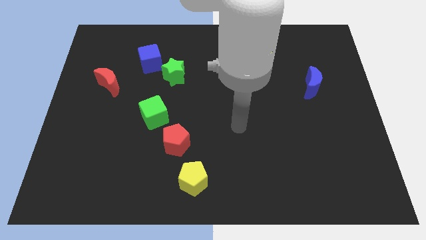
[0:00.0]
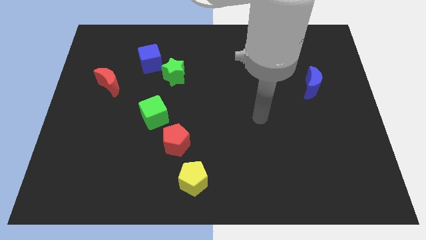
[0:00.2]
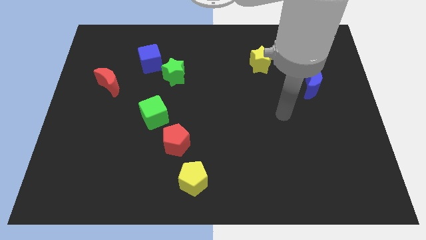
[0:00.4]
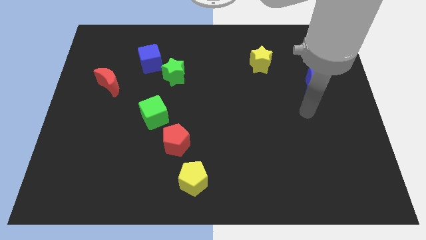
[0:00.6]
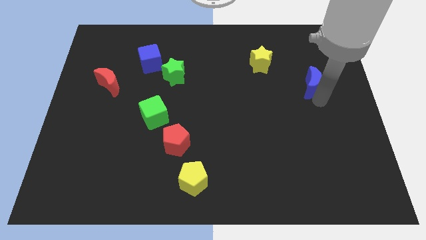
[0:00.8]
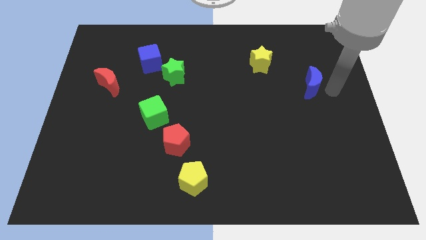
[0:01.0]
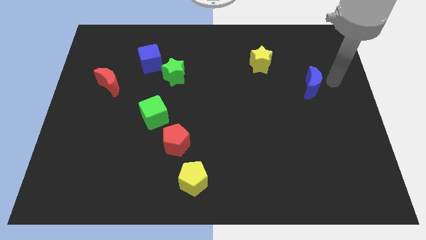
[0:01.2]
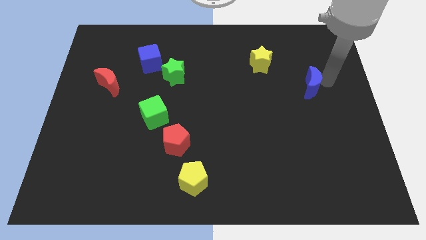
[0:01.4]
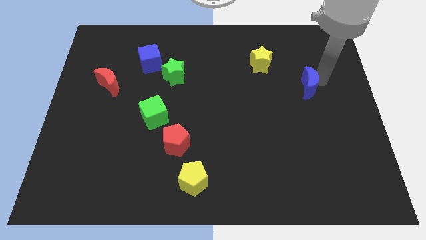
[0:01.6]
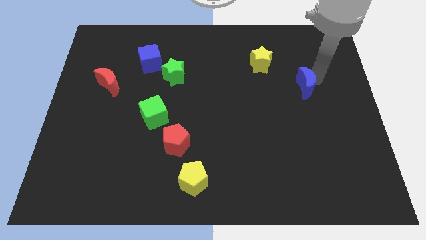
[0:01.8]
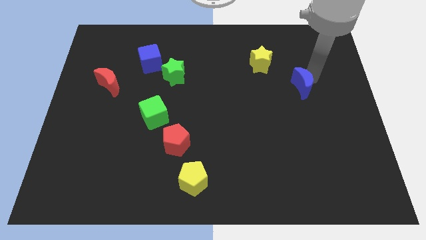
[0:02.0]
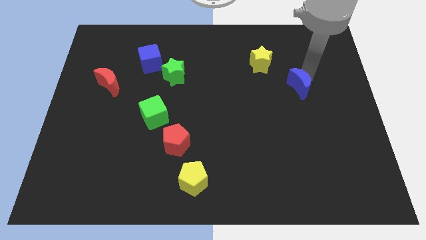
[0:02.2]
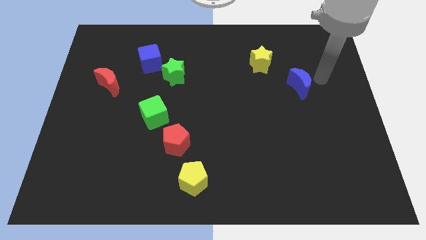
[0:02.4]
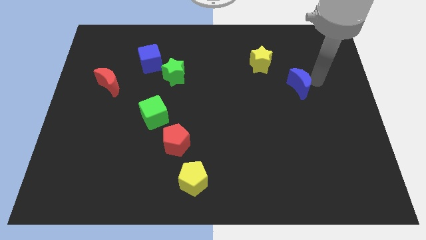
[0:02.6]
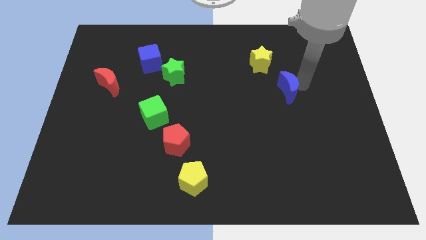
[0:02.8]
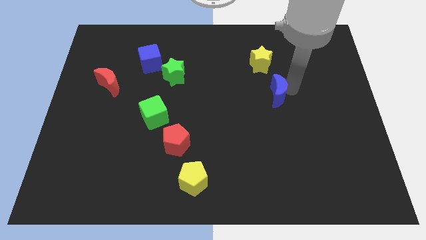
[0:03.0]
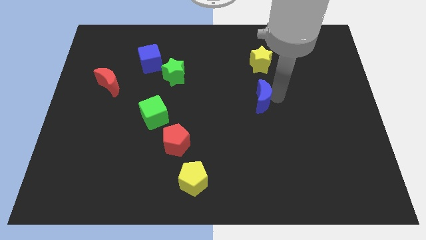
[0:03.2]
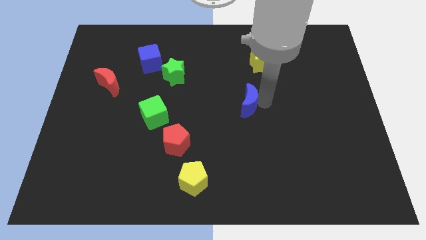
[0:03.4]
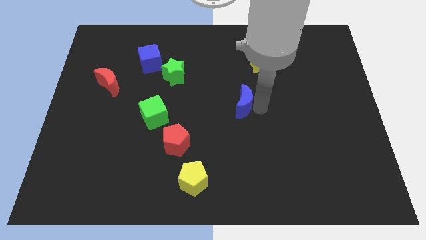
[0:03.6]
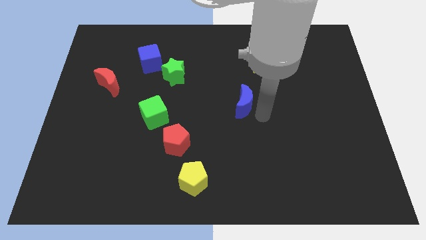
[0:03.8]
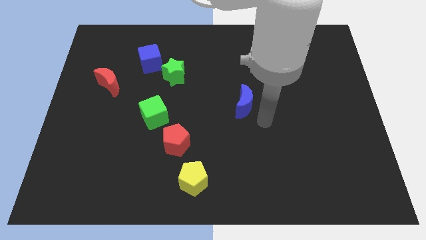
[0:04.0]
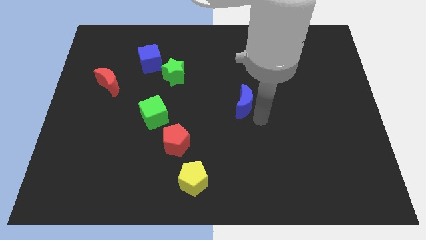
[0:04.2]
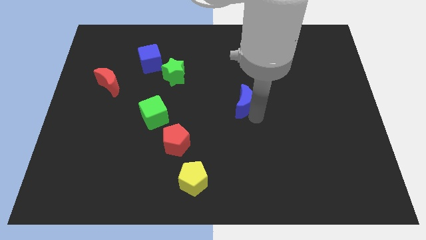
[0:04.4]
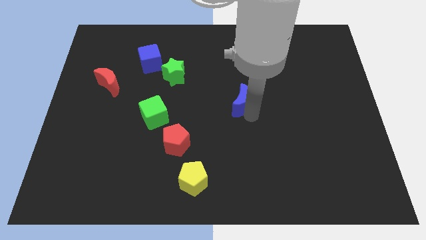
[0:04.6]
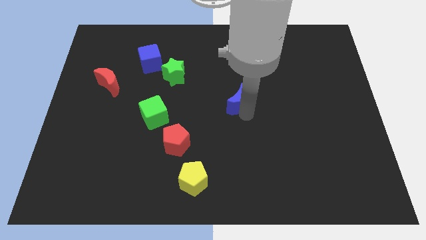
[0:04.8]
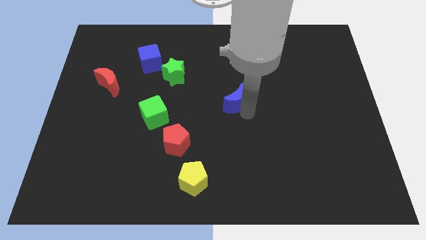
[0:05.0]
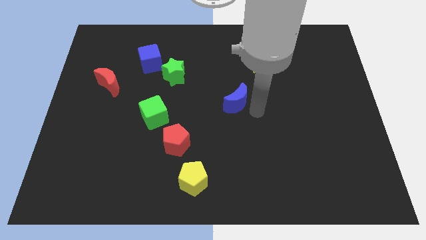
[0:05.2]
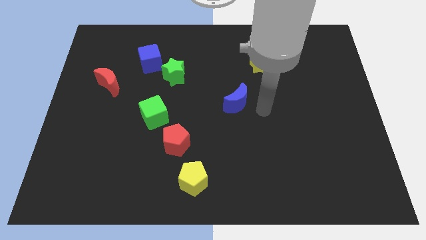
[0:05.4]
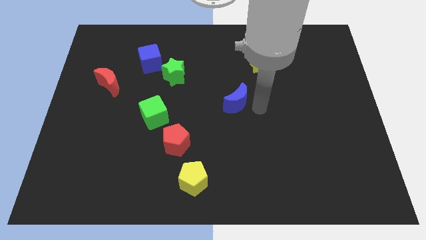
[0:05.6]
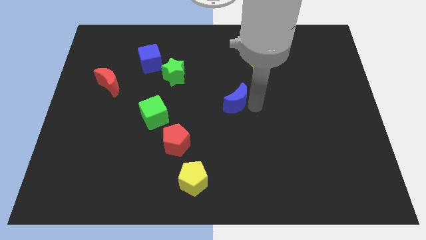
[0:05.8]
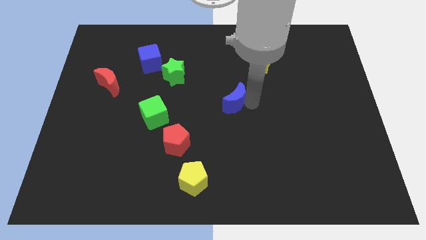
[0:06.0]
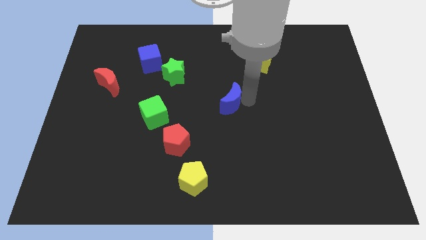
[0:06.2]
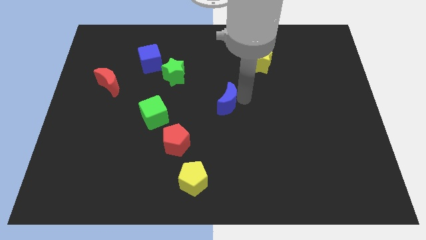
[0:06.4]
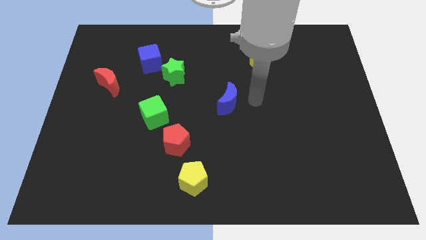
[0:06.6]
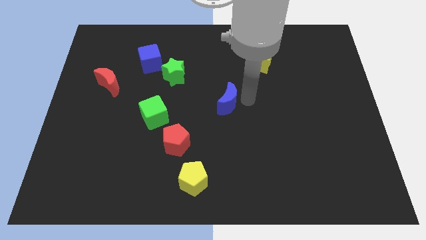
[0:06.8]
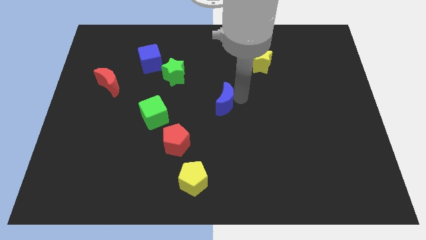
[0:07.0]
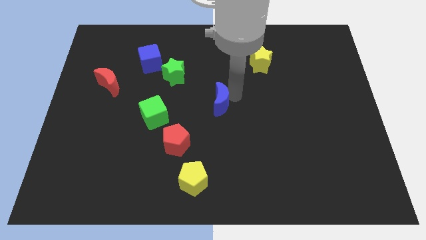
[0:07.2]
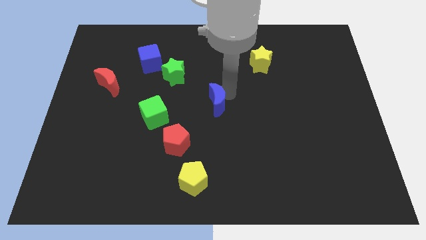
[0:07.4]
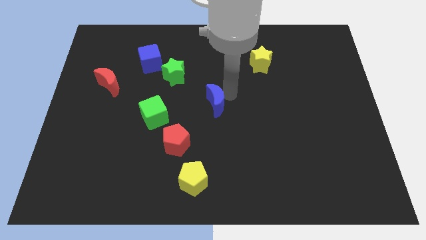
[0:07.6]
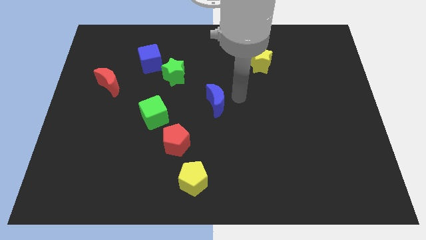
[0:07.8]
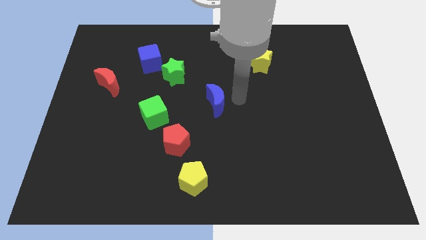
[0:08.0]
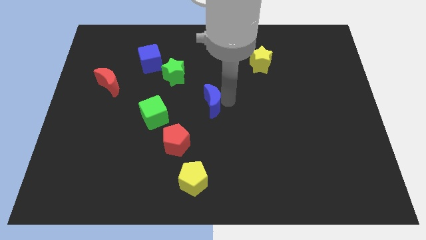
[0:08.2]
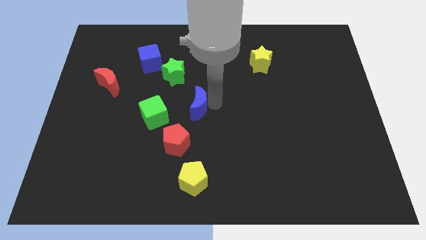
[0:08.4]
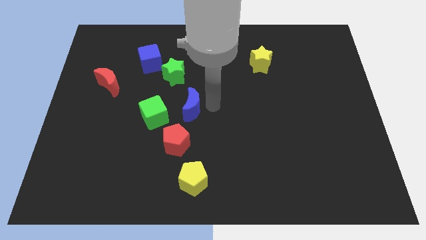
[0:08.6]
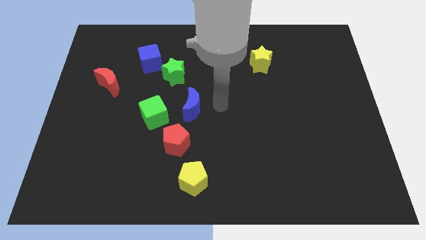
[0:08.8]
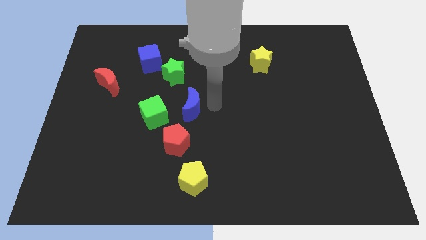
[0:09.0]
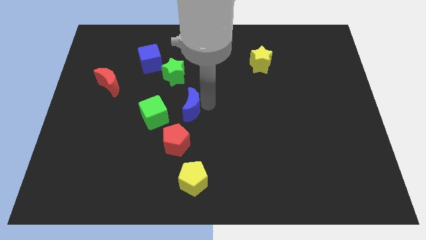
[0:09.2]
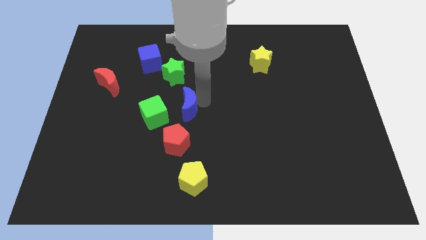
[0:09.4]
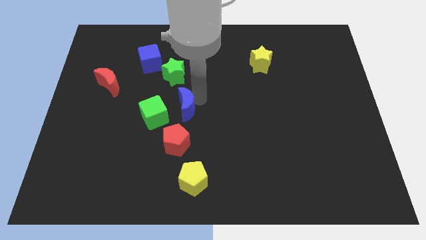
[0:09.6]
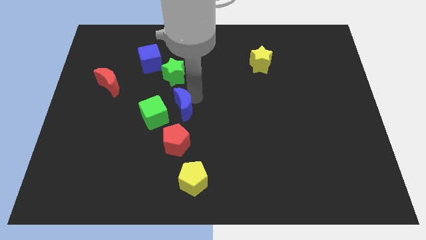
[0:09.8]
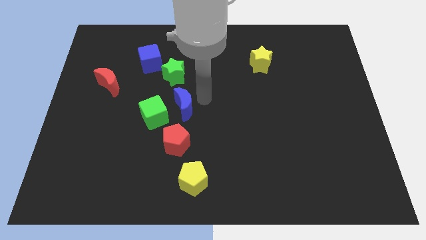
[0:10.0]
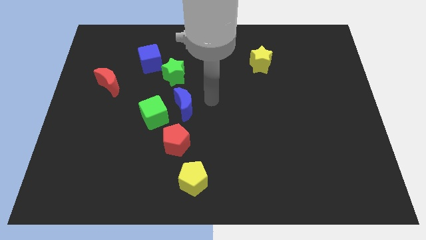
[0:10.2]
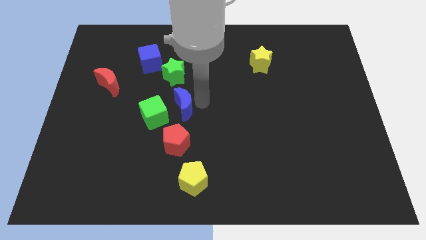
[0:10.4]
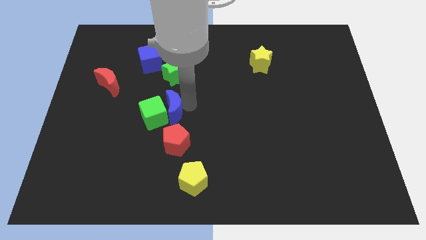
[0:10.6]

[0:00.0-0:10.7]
slide the blue moon close to the green cube

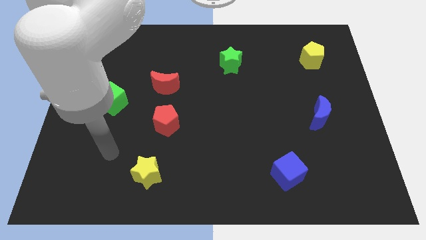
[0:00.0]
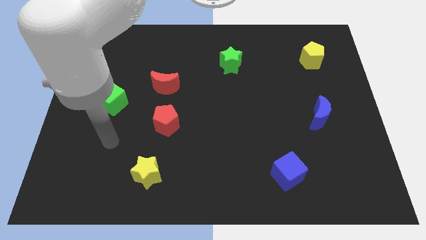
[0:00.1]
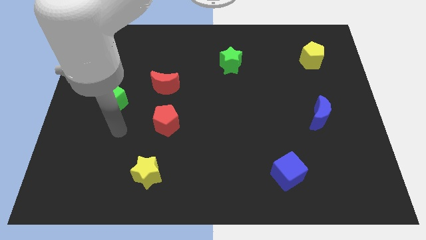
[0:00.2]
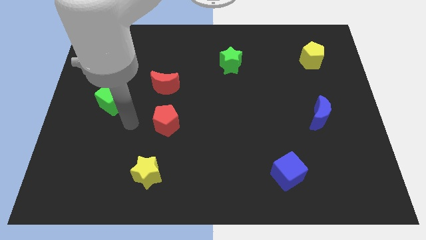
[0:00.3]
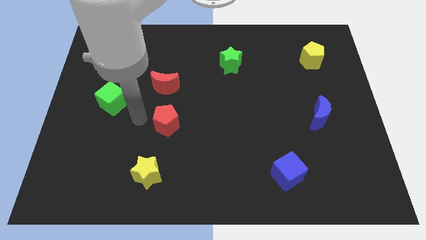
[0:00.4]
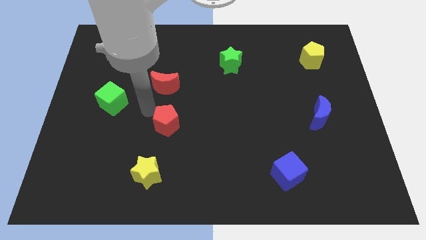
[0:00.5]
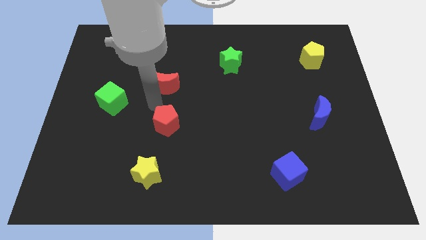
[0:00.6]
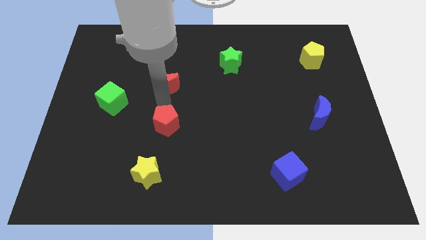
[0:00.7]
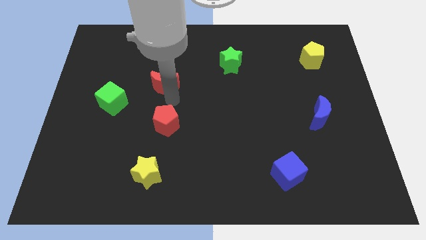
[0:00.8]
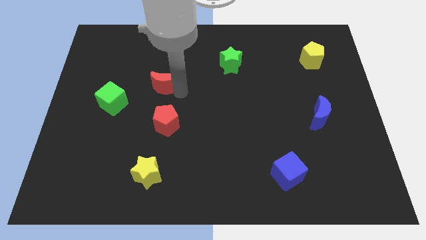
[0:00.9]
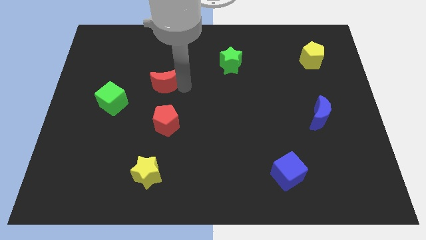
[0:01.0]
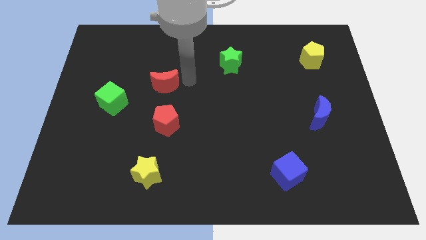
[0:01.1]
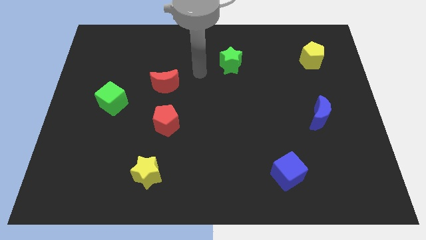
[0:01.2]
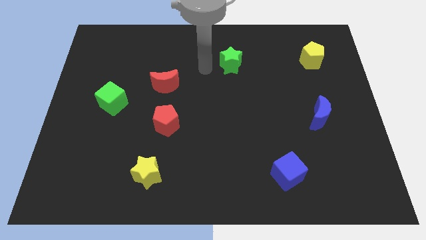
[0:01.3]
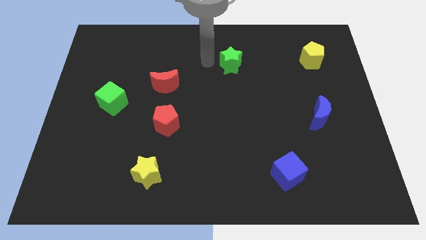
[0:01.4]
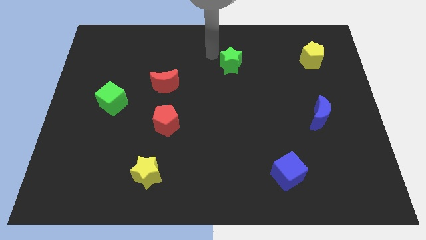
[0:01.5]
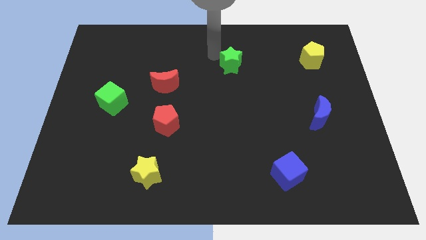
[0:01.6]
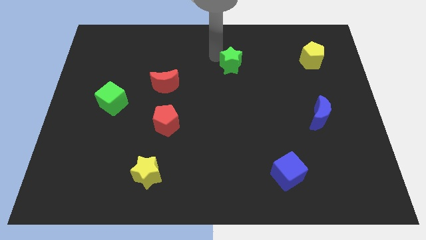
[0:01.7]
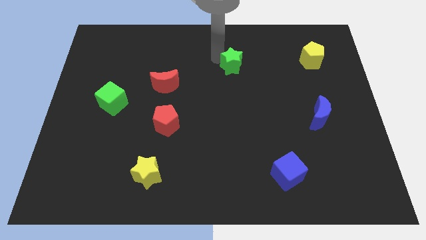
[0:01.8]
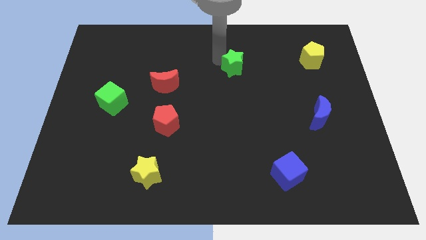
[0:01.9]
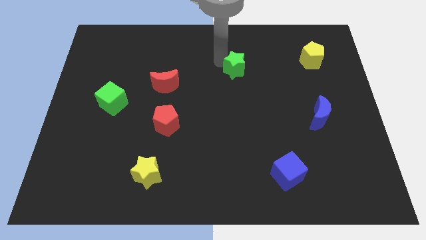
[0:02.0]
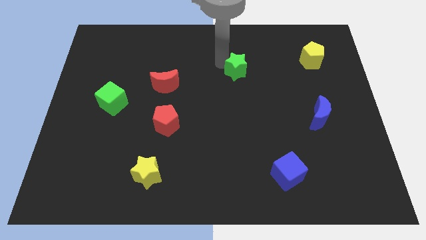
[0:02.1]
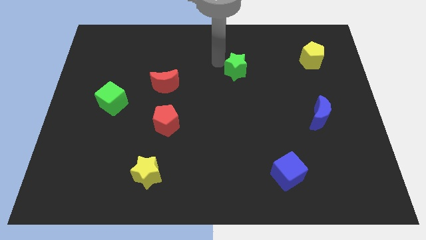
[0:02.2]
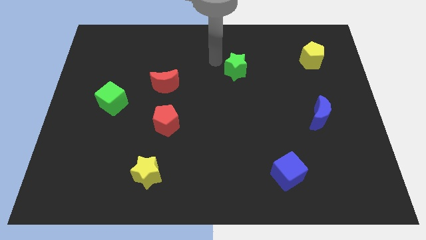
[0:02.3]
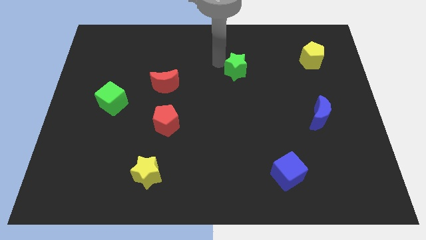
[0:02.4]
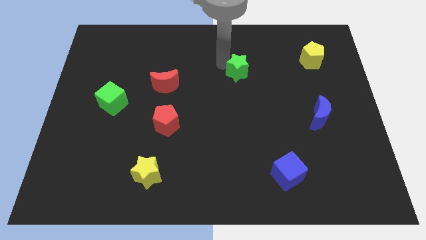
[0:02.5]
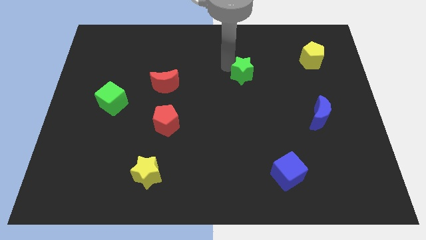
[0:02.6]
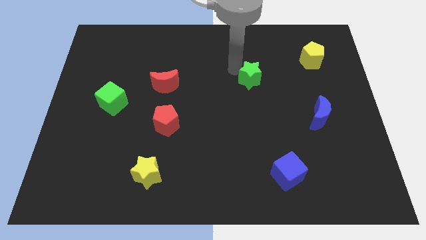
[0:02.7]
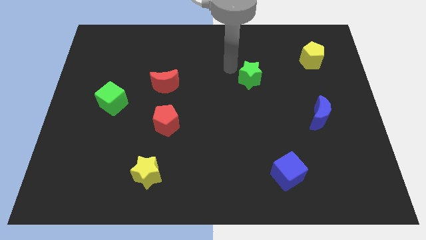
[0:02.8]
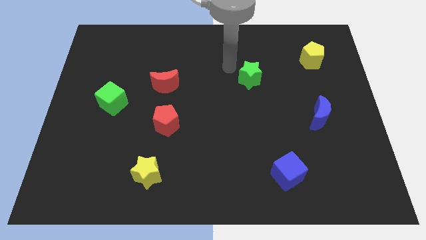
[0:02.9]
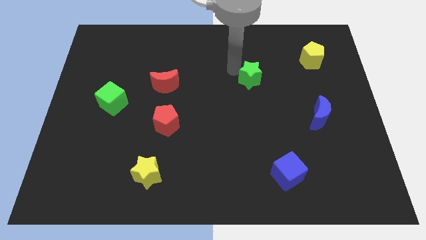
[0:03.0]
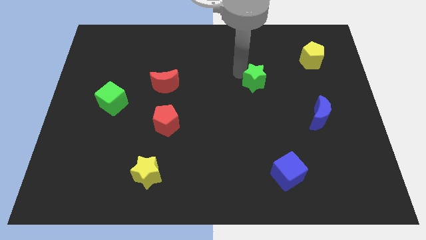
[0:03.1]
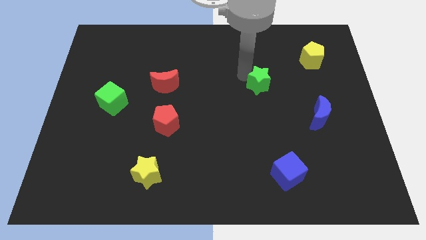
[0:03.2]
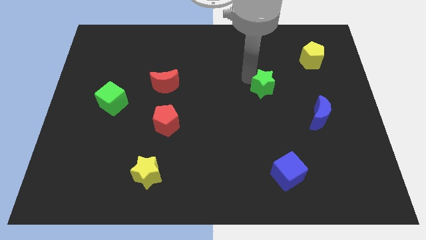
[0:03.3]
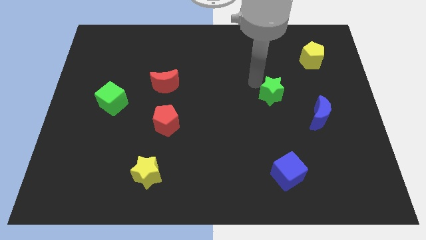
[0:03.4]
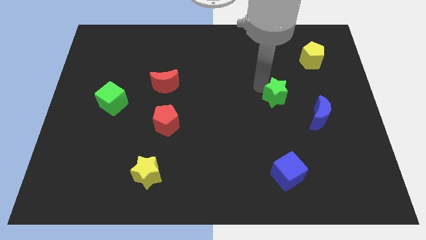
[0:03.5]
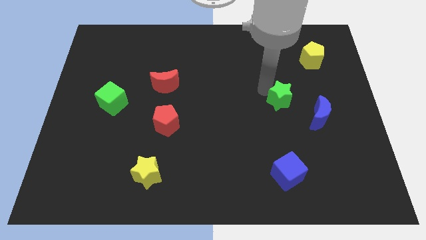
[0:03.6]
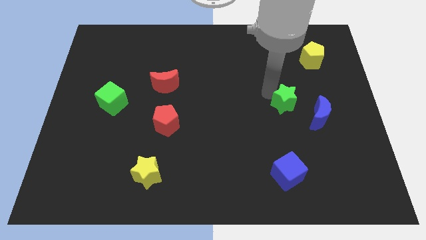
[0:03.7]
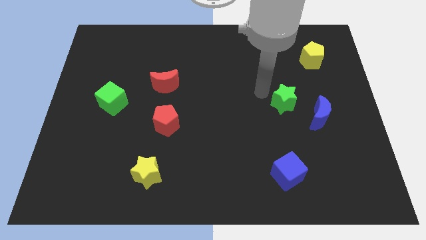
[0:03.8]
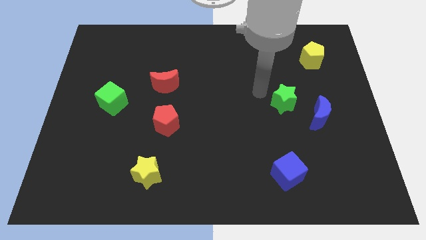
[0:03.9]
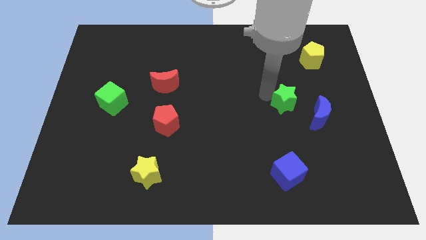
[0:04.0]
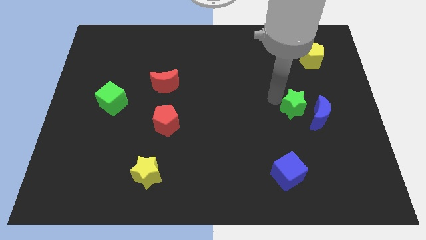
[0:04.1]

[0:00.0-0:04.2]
put the green star towards the blue moon
